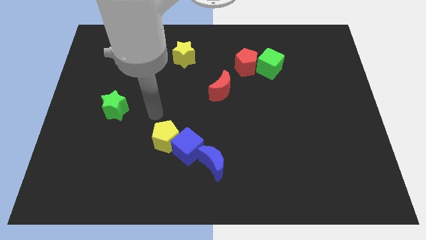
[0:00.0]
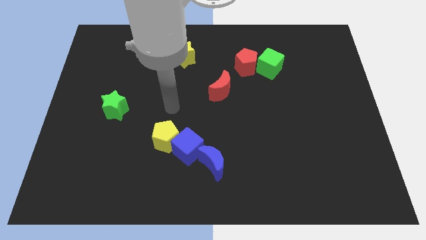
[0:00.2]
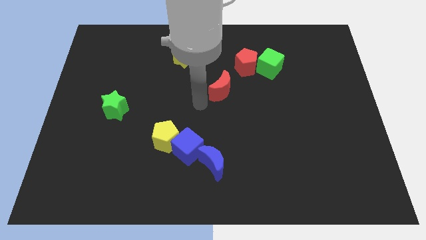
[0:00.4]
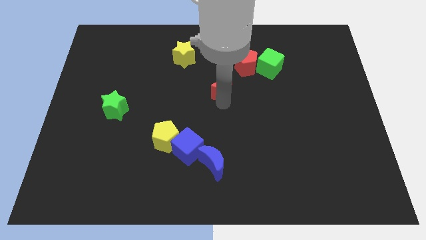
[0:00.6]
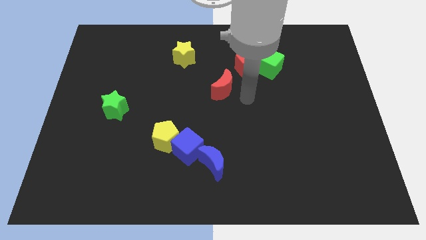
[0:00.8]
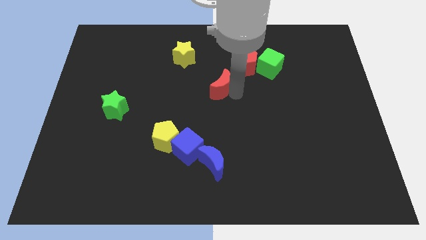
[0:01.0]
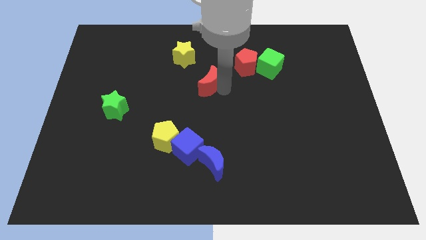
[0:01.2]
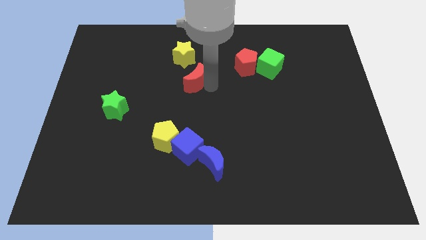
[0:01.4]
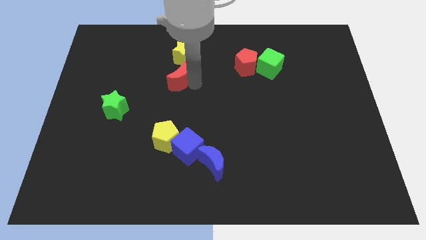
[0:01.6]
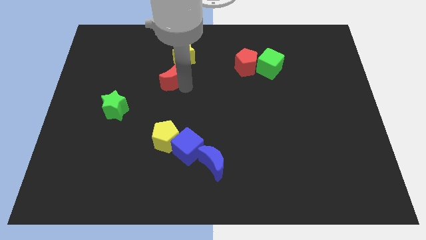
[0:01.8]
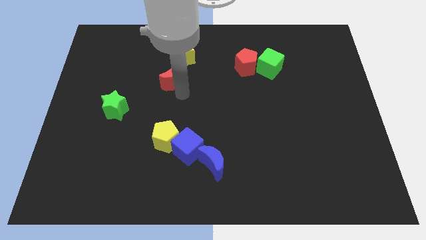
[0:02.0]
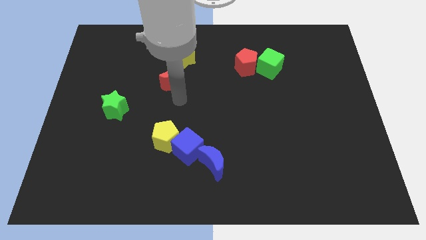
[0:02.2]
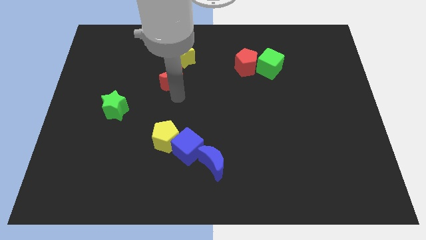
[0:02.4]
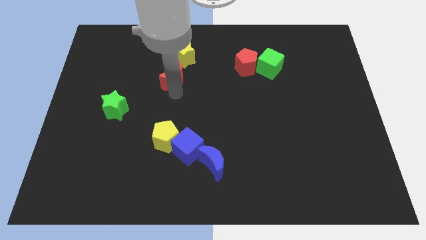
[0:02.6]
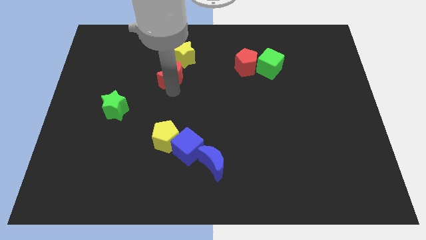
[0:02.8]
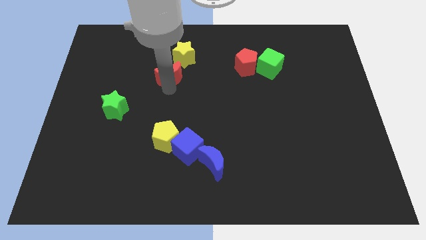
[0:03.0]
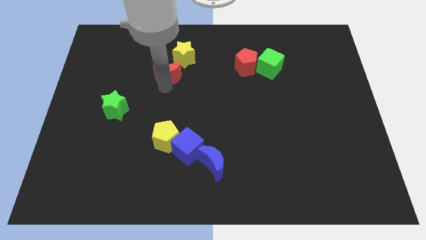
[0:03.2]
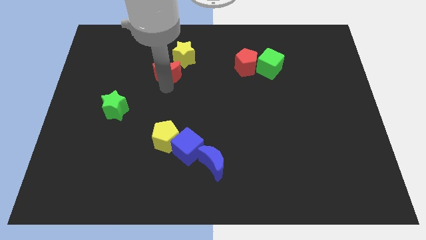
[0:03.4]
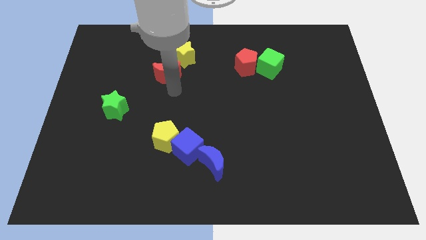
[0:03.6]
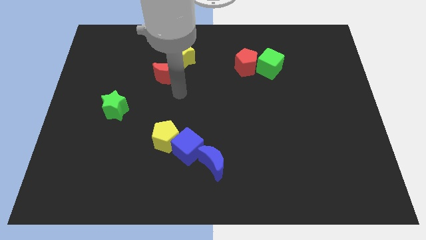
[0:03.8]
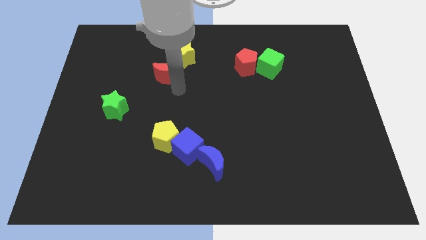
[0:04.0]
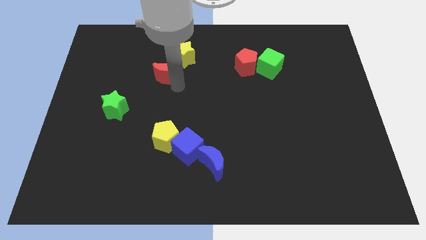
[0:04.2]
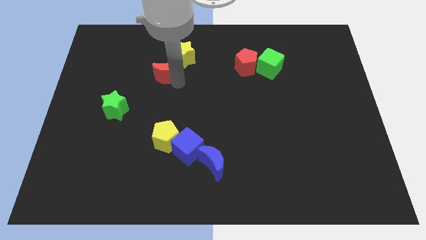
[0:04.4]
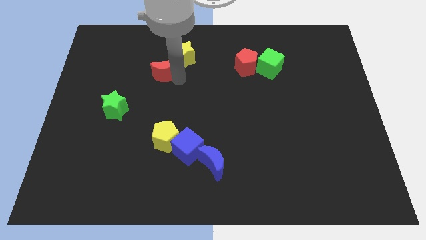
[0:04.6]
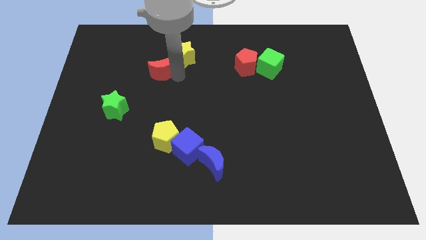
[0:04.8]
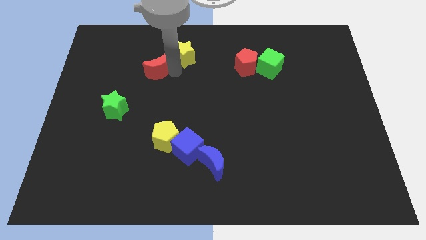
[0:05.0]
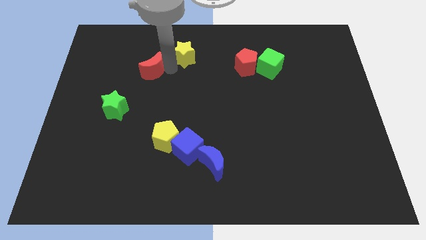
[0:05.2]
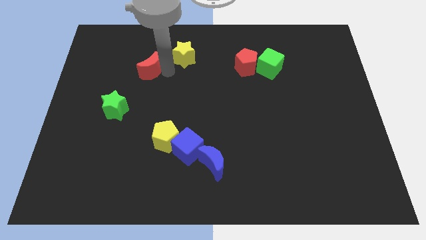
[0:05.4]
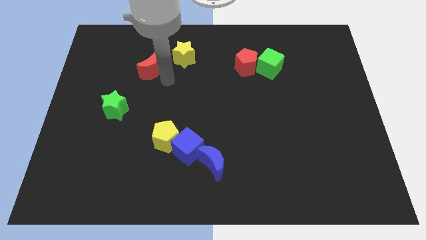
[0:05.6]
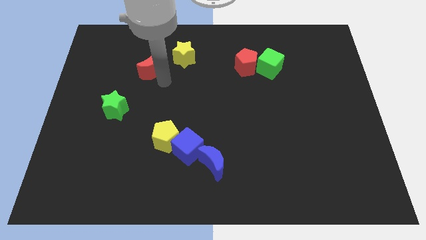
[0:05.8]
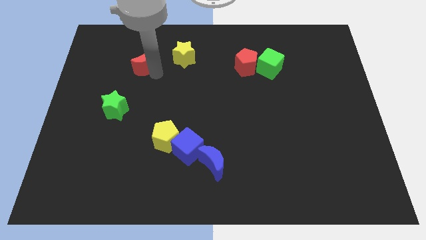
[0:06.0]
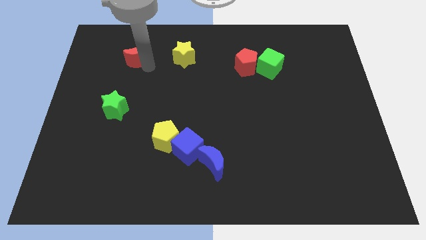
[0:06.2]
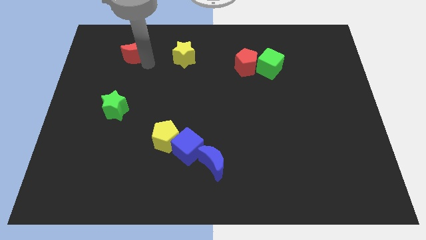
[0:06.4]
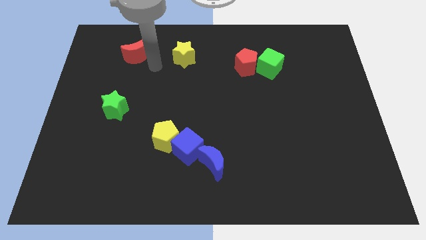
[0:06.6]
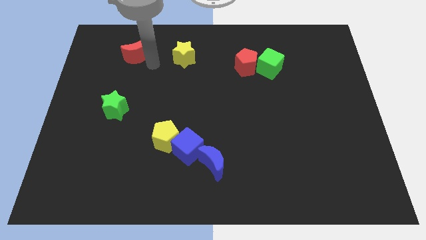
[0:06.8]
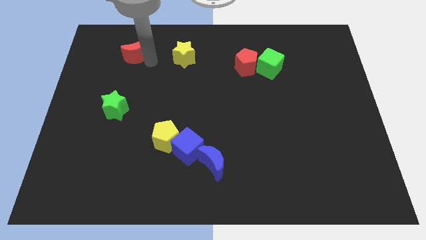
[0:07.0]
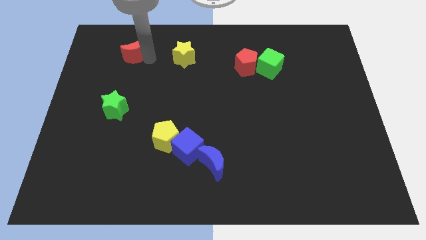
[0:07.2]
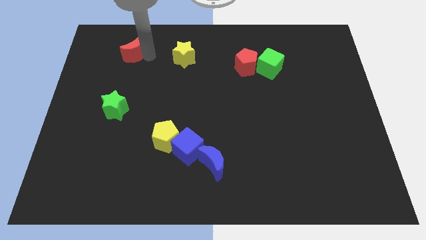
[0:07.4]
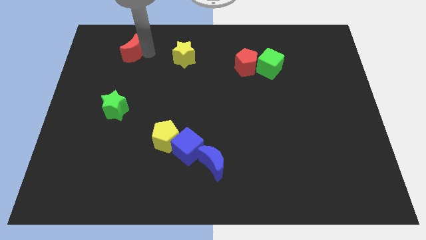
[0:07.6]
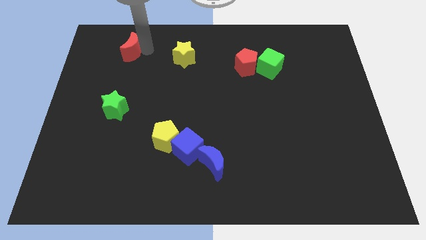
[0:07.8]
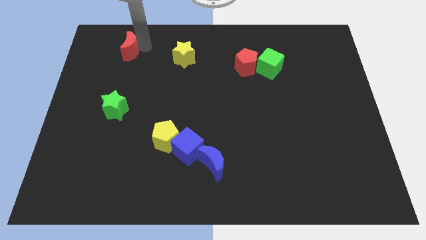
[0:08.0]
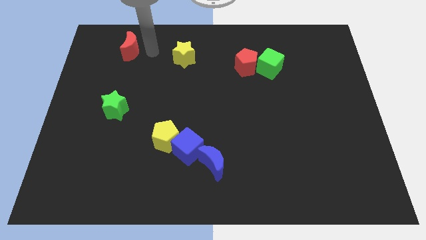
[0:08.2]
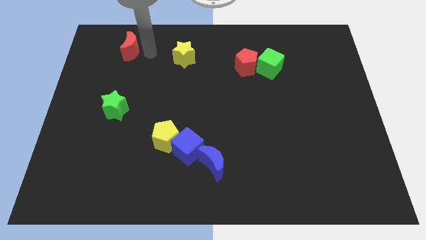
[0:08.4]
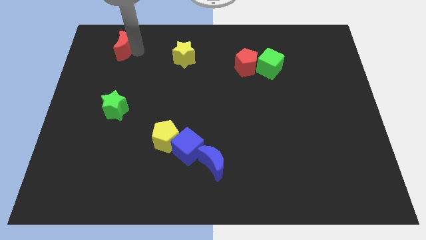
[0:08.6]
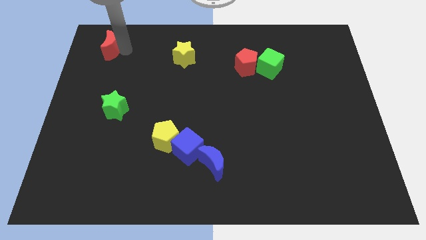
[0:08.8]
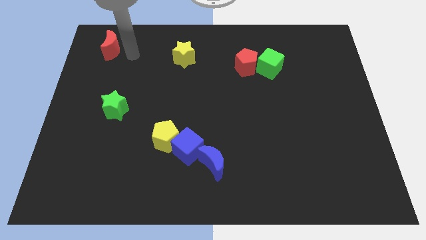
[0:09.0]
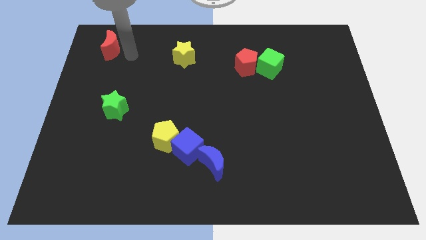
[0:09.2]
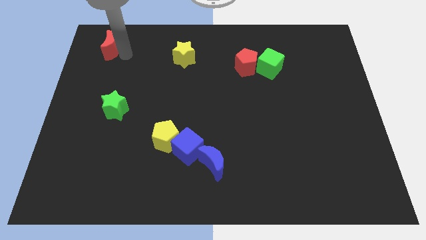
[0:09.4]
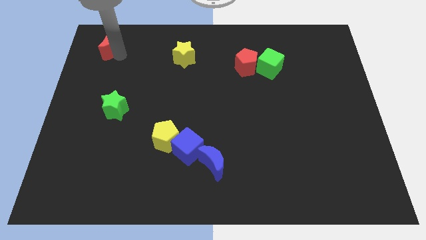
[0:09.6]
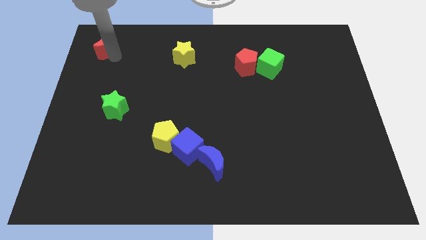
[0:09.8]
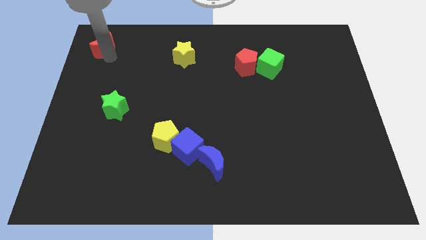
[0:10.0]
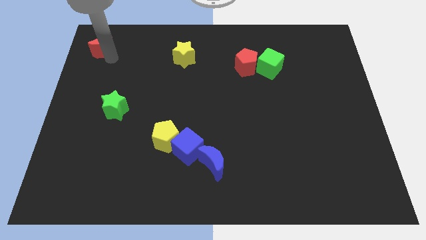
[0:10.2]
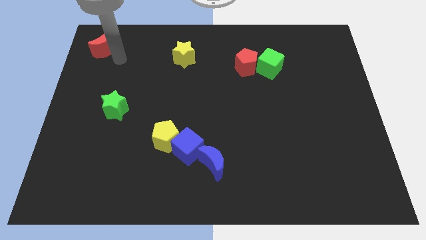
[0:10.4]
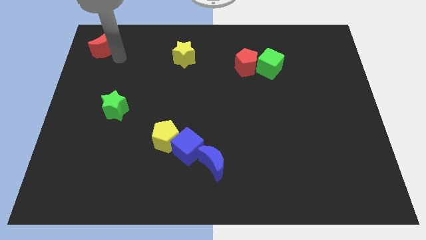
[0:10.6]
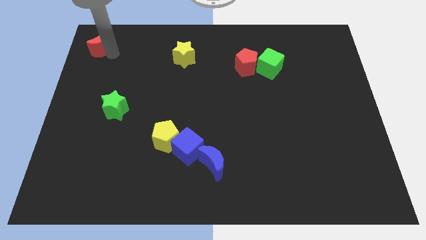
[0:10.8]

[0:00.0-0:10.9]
slide the red moon to the top left corner

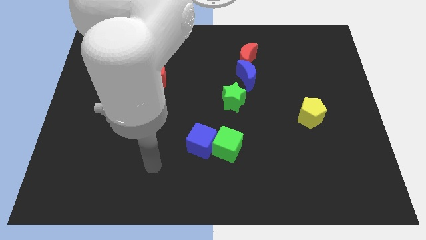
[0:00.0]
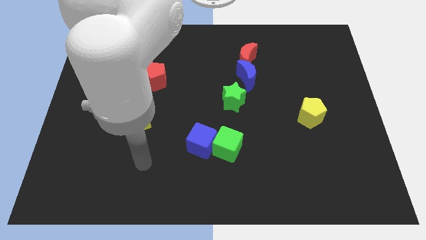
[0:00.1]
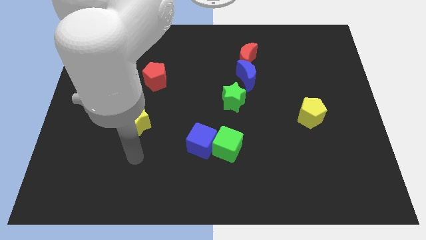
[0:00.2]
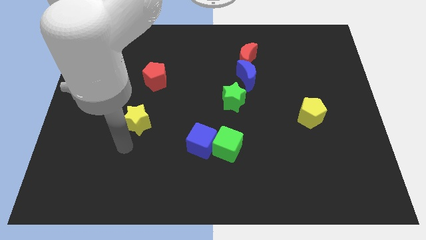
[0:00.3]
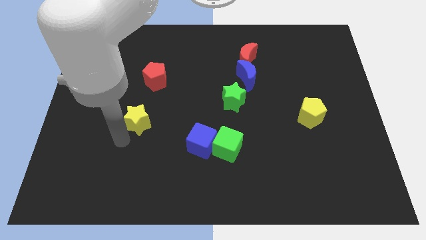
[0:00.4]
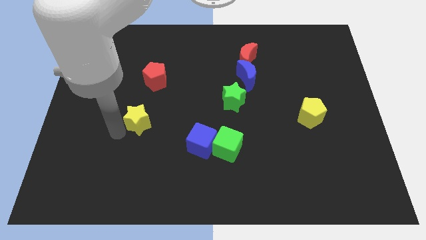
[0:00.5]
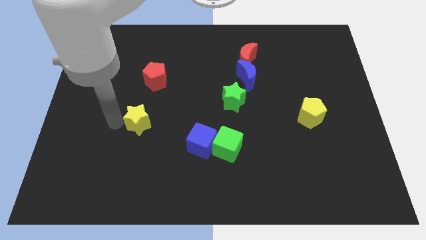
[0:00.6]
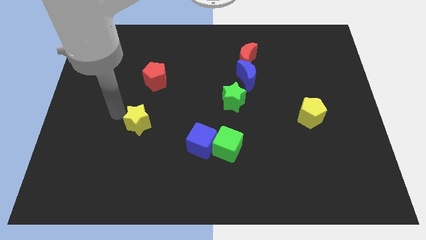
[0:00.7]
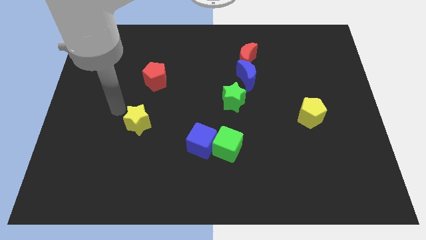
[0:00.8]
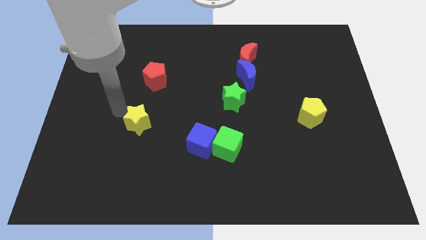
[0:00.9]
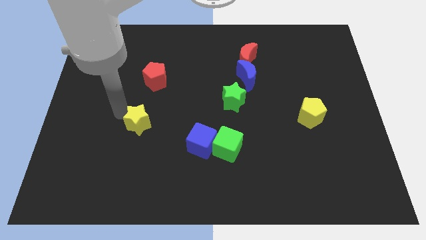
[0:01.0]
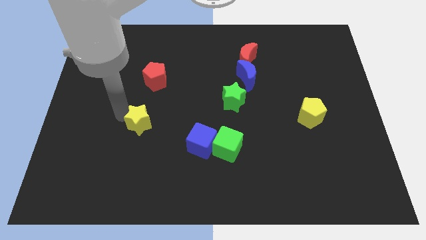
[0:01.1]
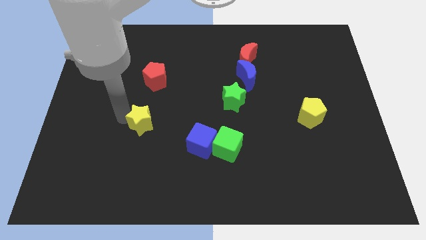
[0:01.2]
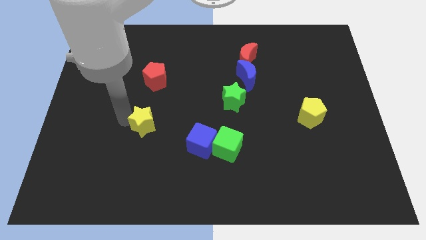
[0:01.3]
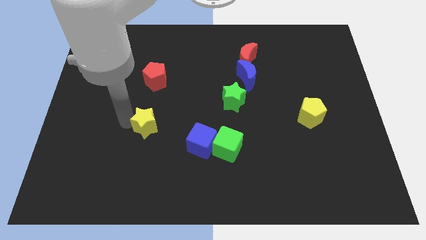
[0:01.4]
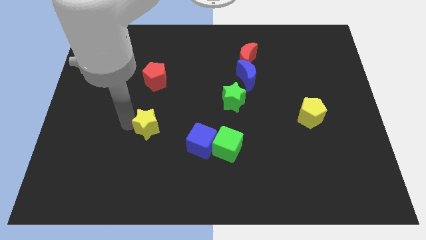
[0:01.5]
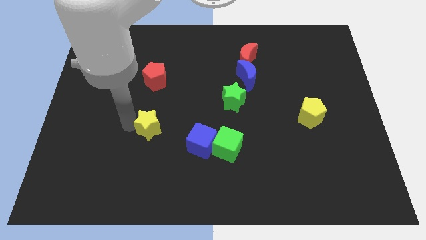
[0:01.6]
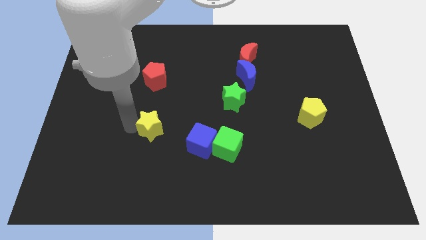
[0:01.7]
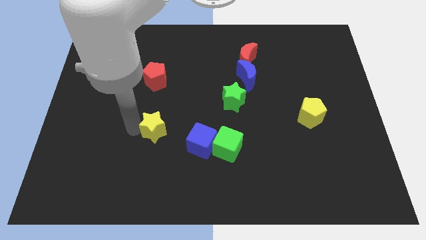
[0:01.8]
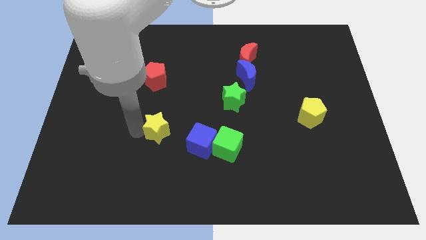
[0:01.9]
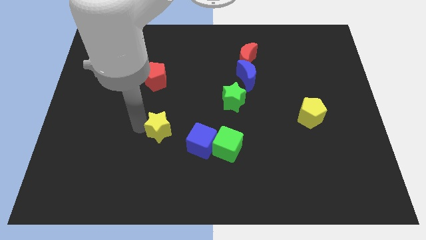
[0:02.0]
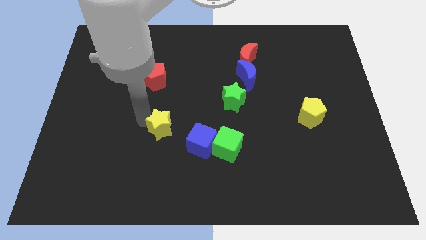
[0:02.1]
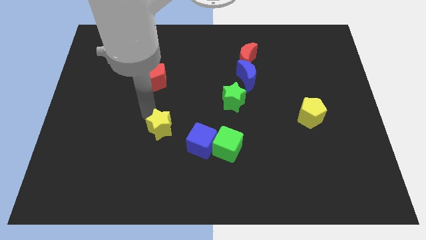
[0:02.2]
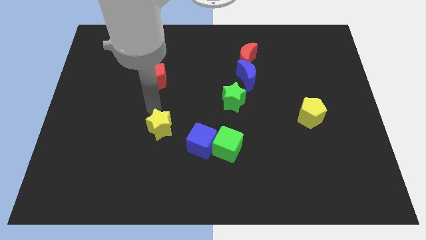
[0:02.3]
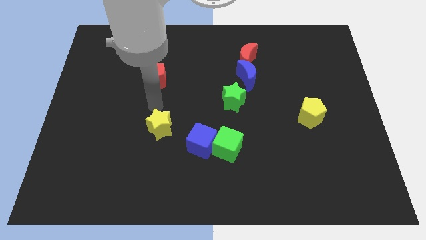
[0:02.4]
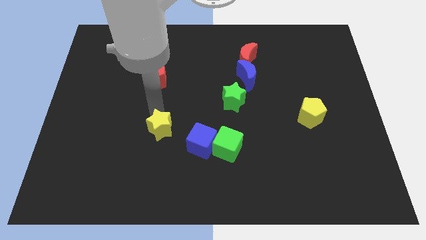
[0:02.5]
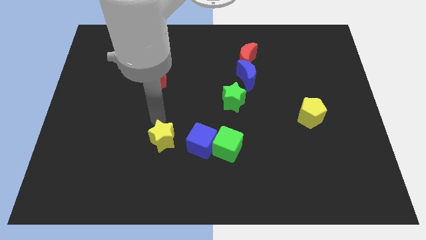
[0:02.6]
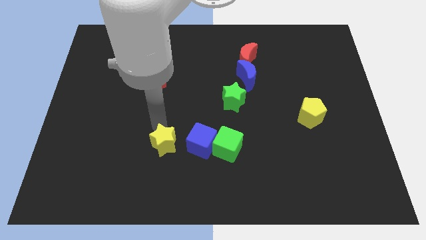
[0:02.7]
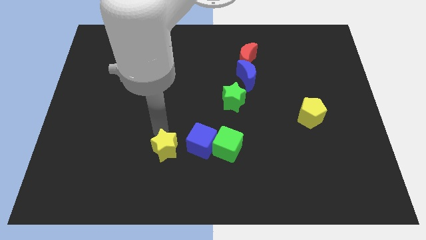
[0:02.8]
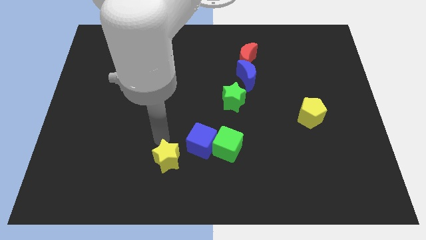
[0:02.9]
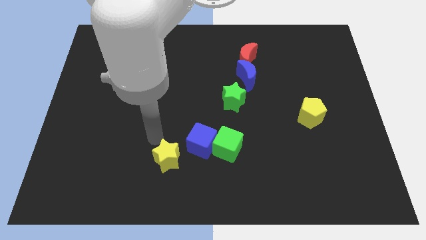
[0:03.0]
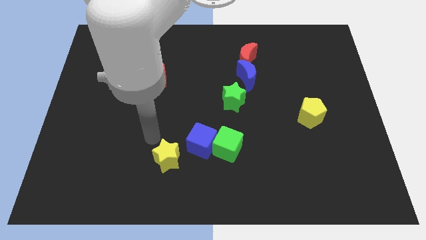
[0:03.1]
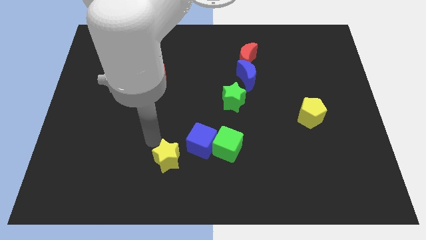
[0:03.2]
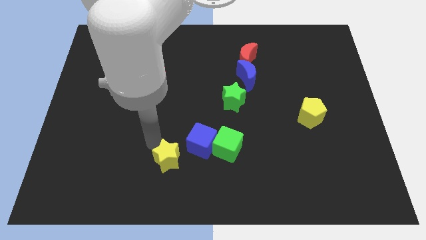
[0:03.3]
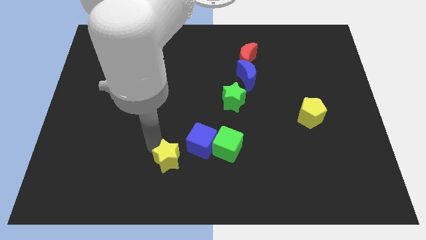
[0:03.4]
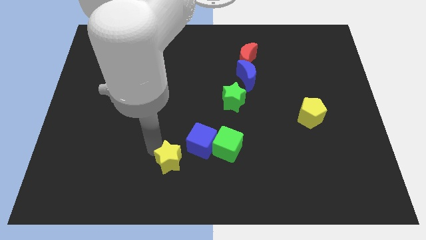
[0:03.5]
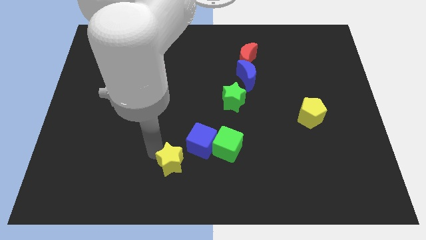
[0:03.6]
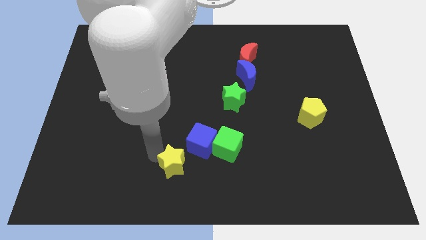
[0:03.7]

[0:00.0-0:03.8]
slide the yellow star to the bottom
